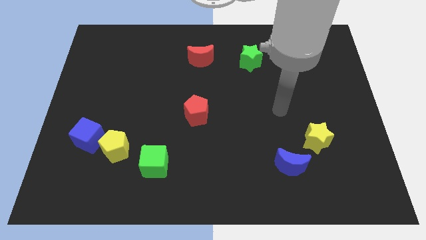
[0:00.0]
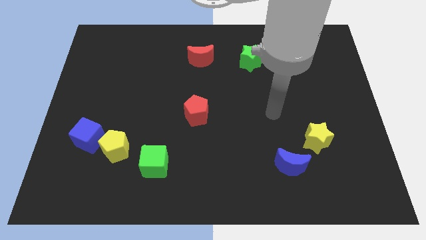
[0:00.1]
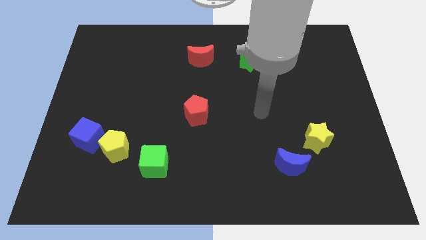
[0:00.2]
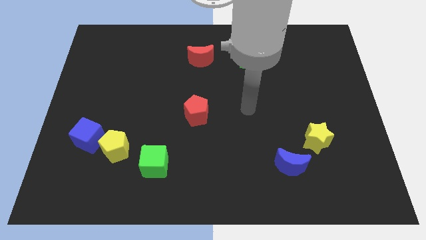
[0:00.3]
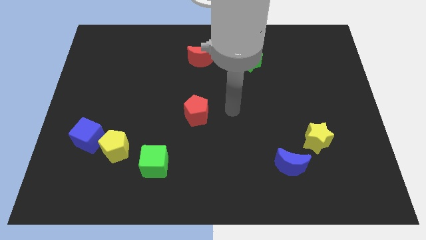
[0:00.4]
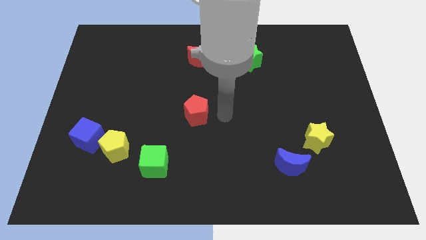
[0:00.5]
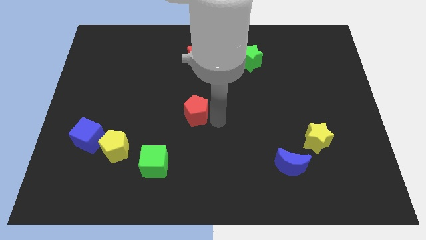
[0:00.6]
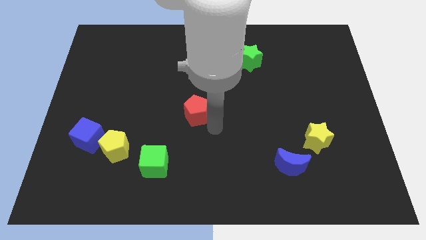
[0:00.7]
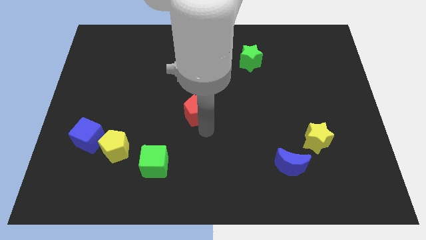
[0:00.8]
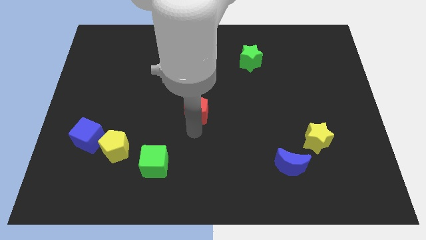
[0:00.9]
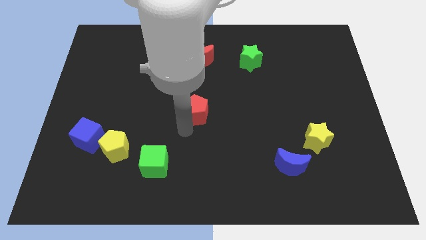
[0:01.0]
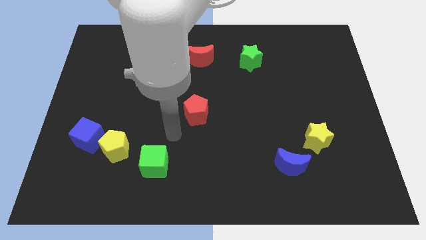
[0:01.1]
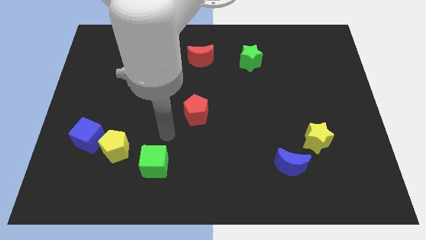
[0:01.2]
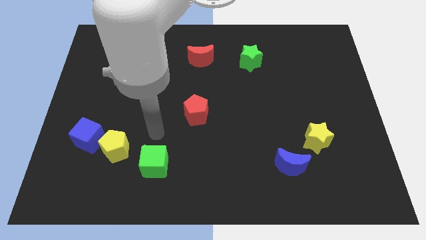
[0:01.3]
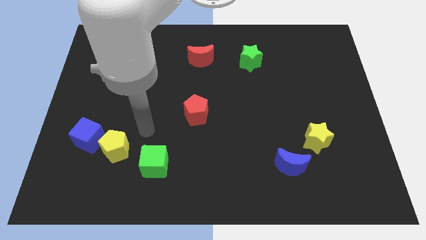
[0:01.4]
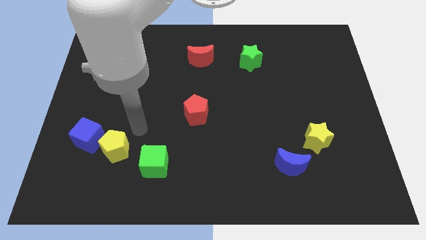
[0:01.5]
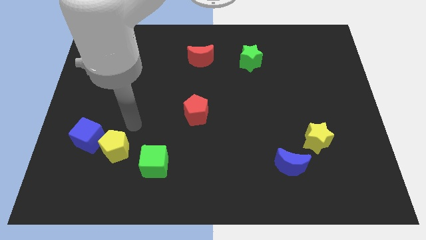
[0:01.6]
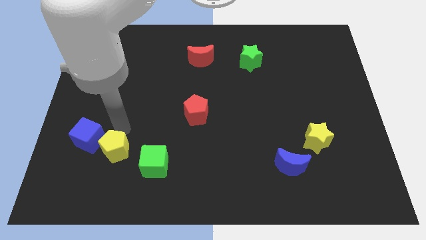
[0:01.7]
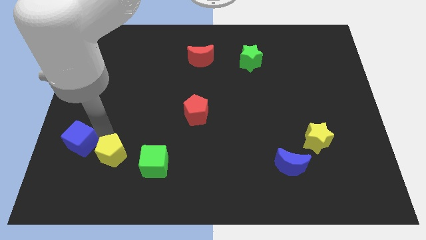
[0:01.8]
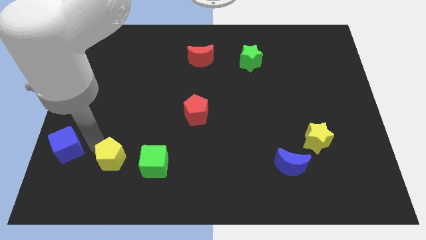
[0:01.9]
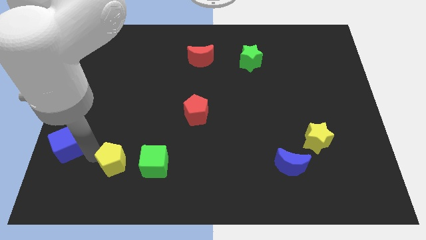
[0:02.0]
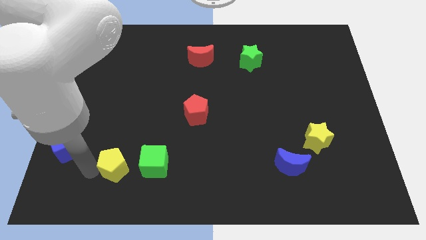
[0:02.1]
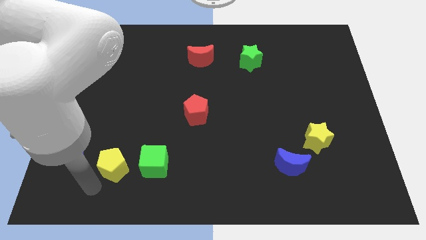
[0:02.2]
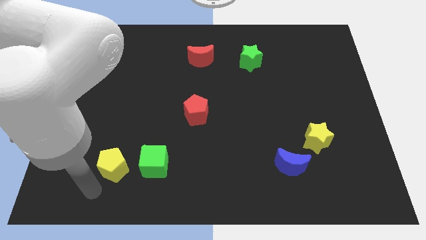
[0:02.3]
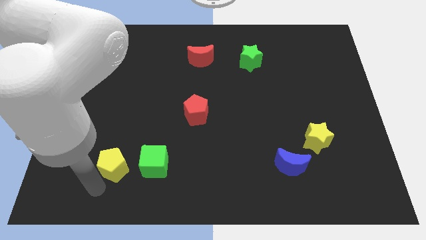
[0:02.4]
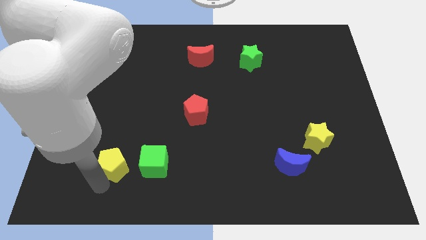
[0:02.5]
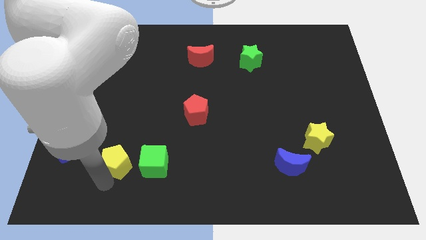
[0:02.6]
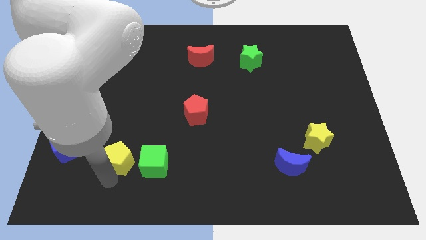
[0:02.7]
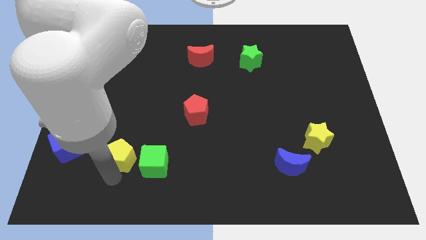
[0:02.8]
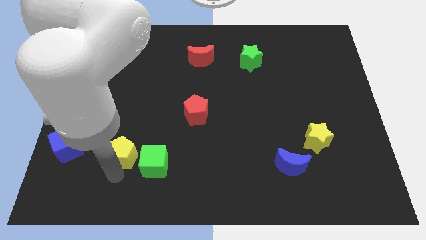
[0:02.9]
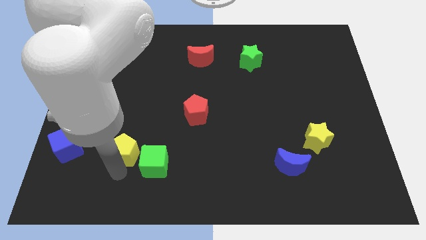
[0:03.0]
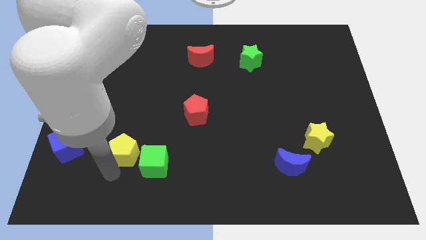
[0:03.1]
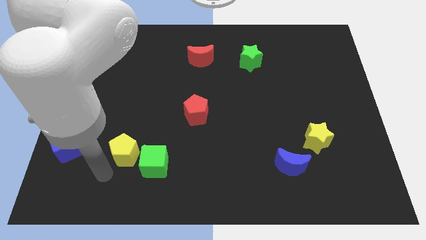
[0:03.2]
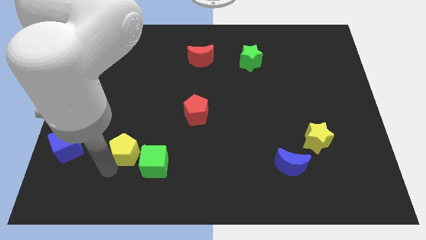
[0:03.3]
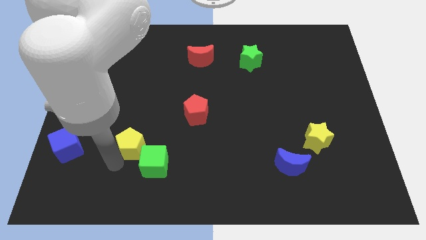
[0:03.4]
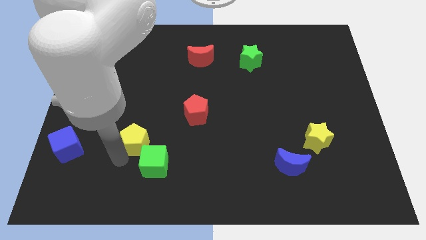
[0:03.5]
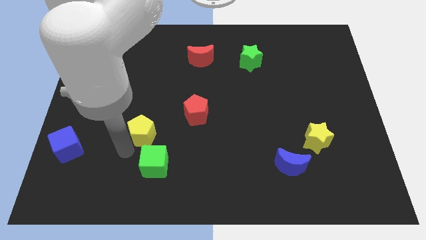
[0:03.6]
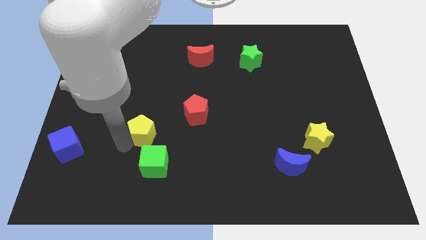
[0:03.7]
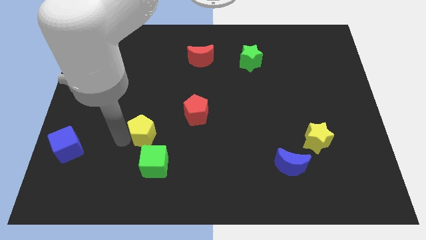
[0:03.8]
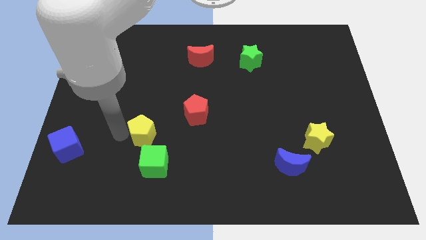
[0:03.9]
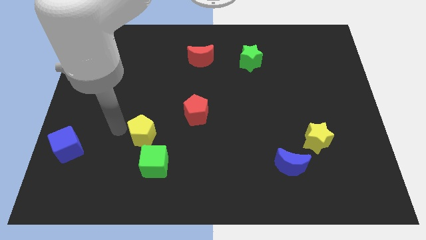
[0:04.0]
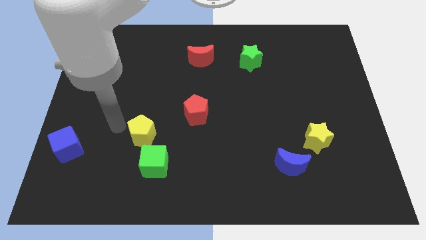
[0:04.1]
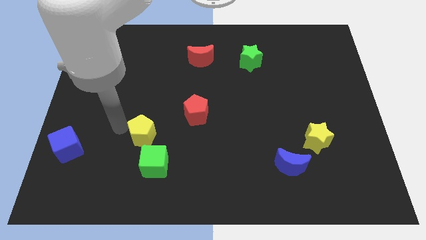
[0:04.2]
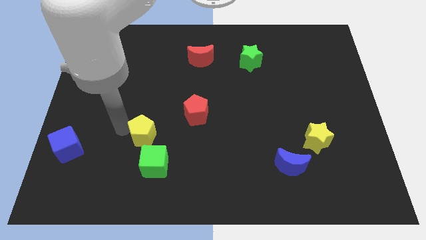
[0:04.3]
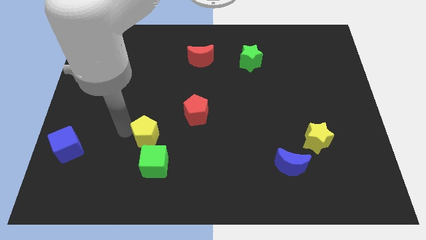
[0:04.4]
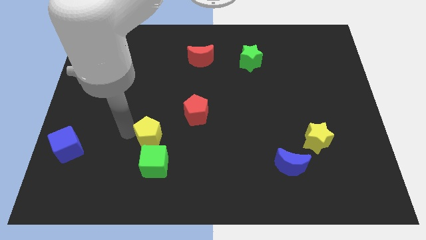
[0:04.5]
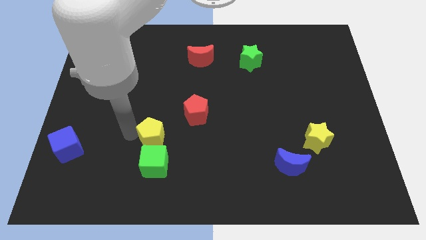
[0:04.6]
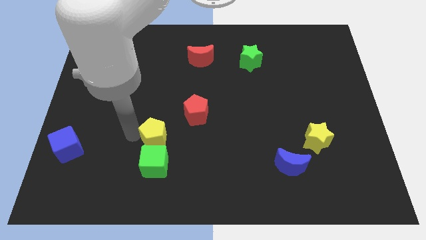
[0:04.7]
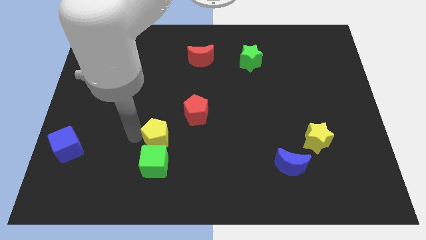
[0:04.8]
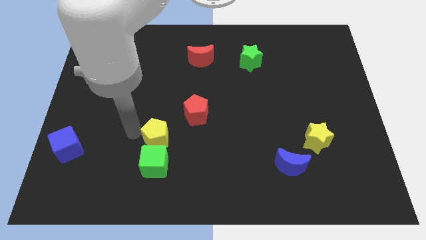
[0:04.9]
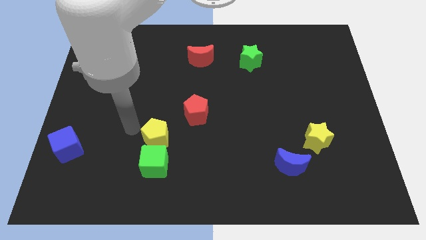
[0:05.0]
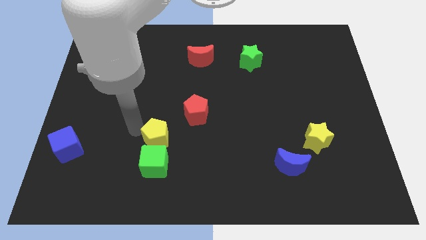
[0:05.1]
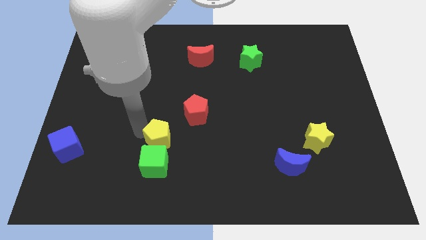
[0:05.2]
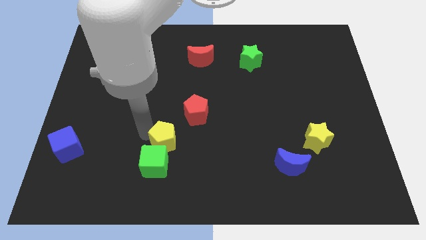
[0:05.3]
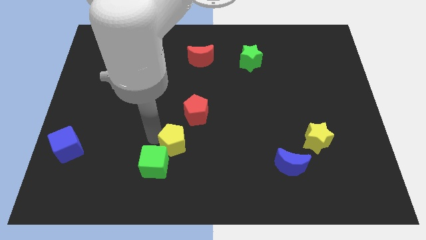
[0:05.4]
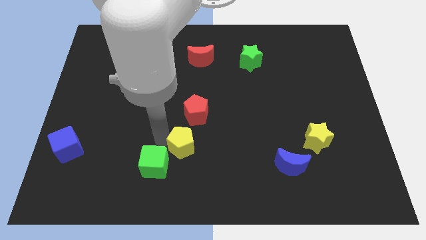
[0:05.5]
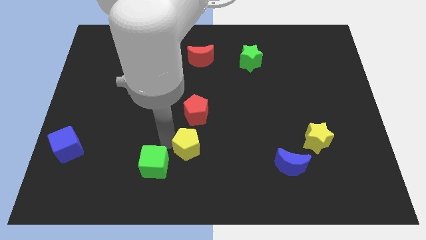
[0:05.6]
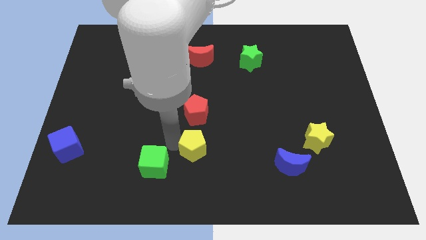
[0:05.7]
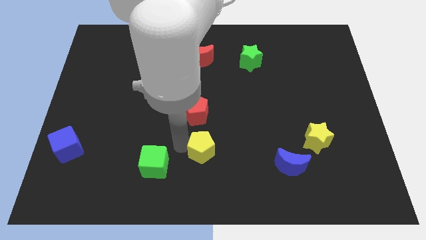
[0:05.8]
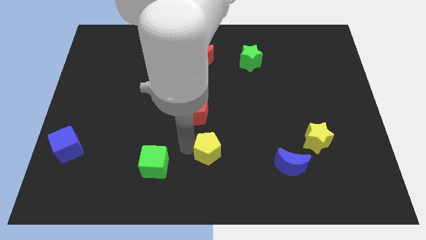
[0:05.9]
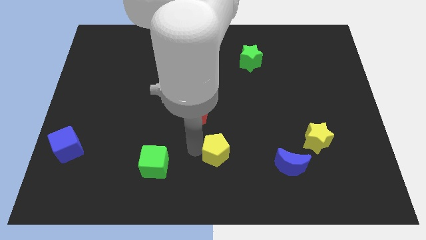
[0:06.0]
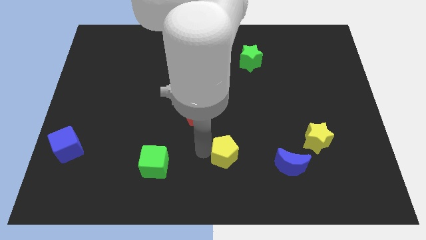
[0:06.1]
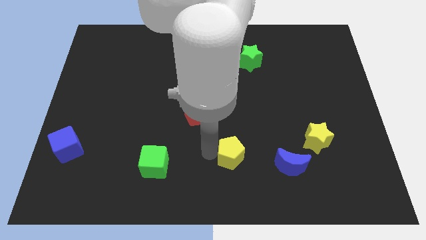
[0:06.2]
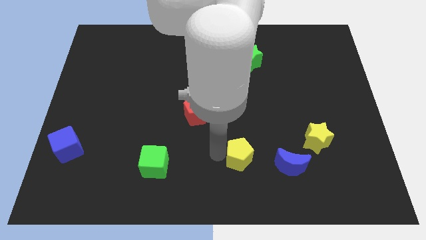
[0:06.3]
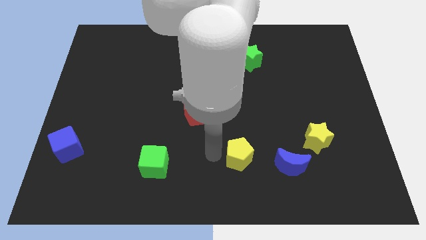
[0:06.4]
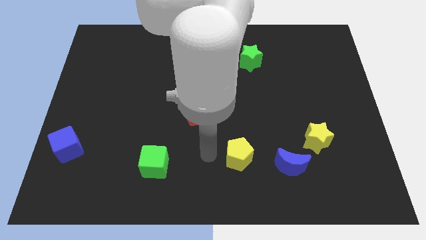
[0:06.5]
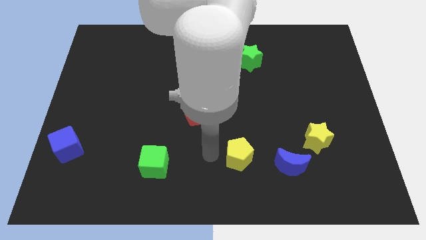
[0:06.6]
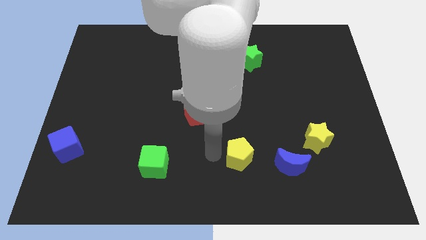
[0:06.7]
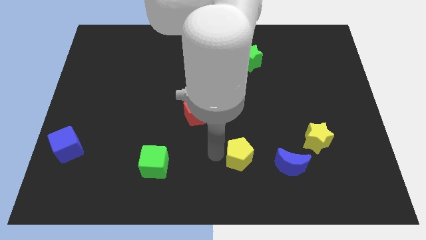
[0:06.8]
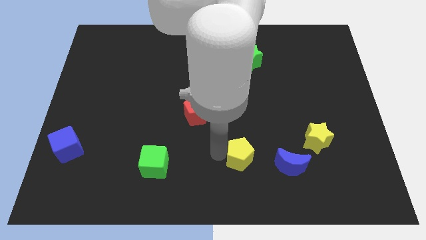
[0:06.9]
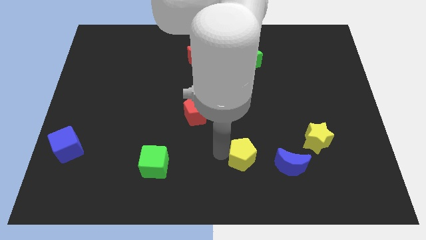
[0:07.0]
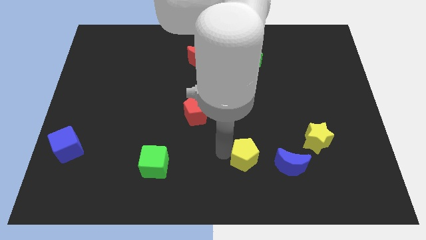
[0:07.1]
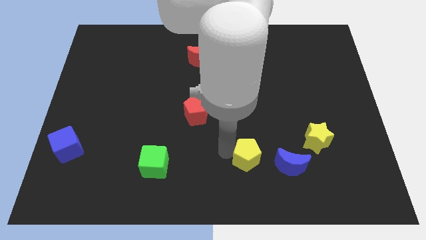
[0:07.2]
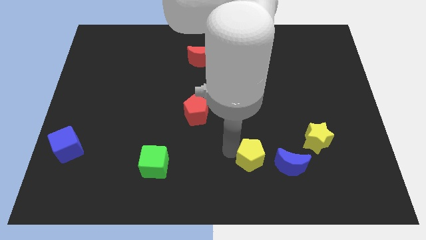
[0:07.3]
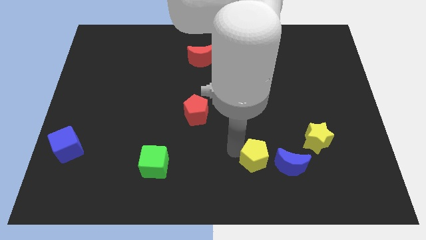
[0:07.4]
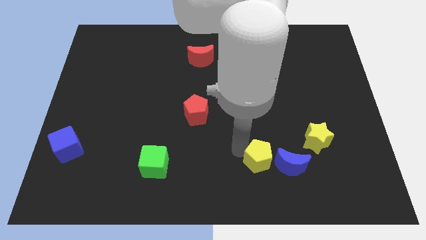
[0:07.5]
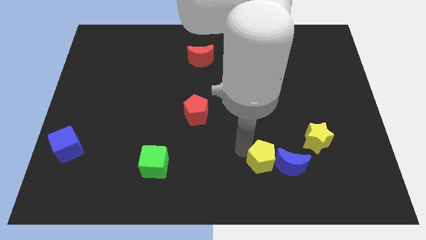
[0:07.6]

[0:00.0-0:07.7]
push the yellow pentagon next to the blue moon
